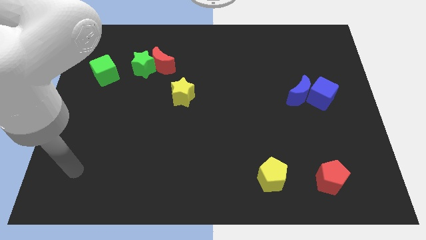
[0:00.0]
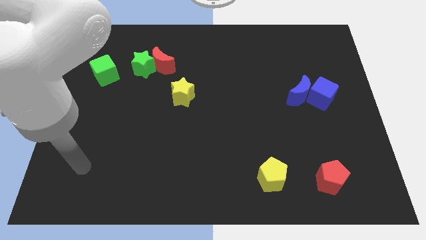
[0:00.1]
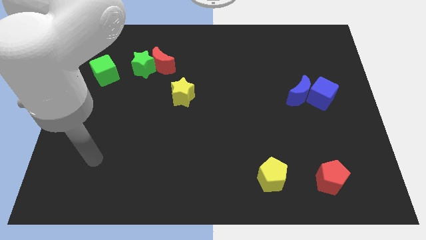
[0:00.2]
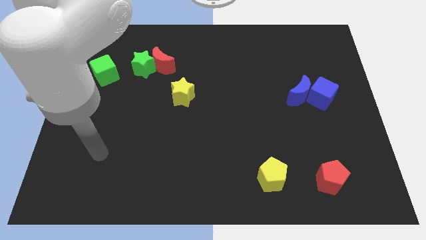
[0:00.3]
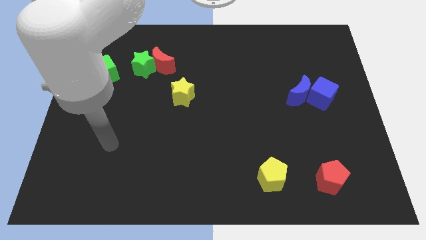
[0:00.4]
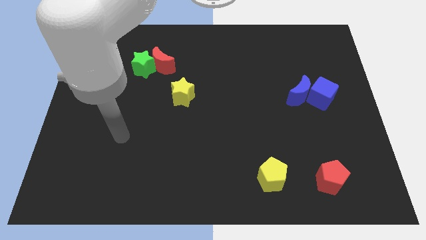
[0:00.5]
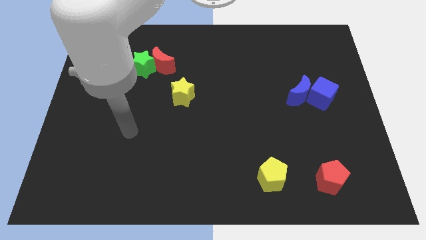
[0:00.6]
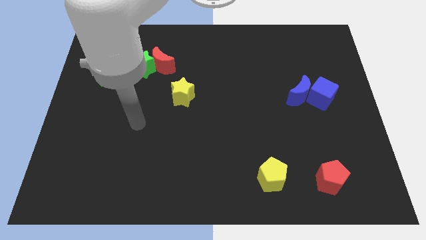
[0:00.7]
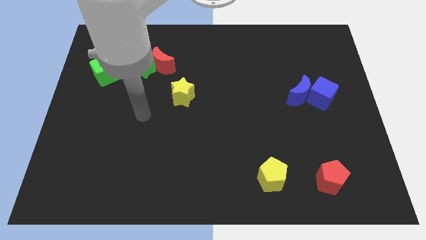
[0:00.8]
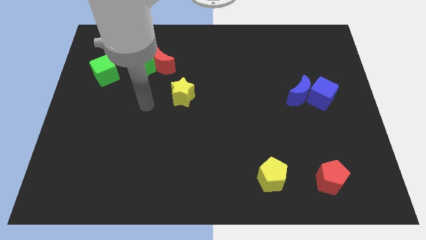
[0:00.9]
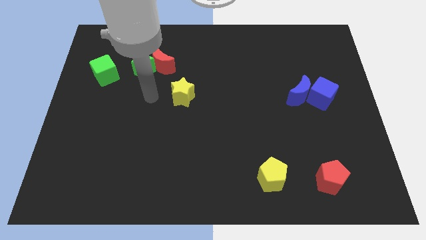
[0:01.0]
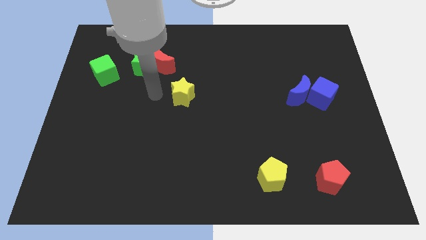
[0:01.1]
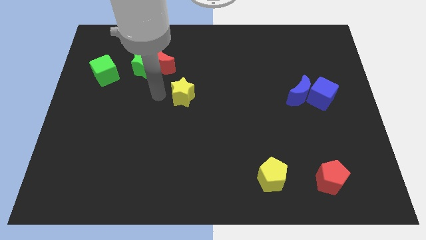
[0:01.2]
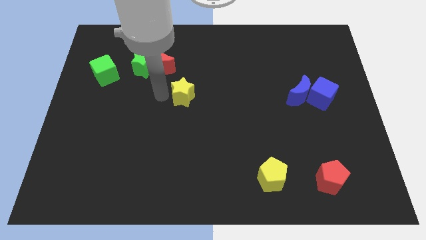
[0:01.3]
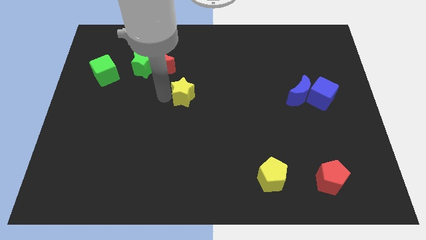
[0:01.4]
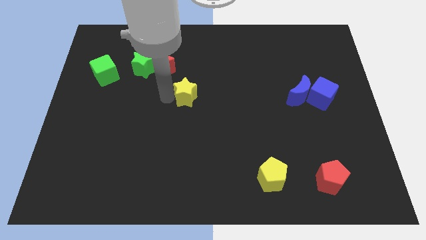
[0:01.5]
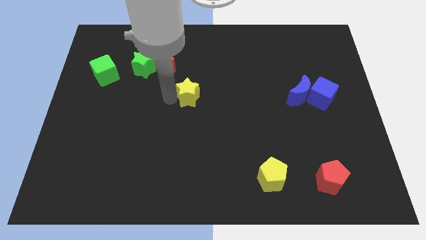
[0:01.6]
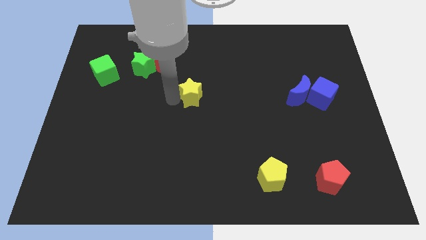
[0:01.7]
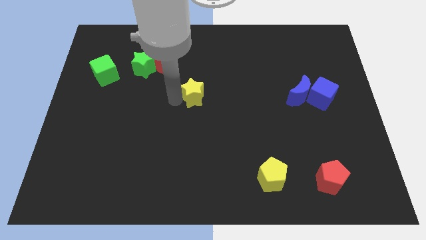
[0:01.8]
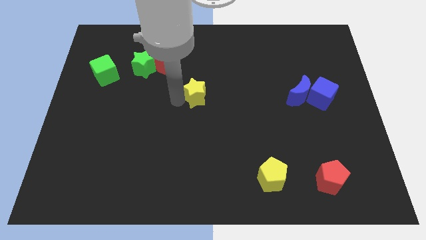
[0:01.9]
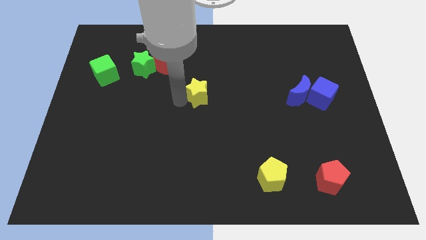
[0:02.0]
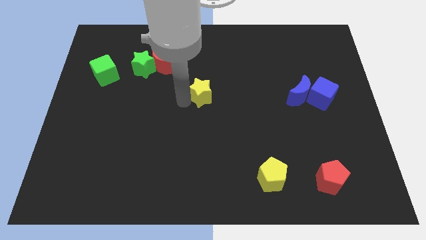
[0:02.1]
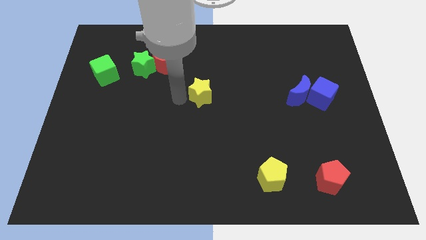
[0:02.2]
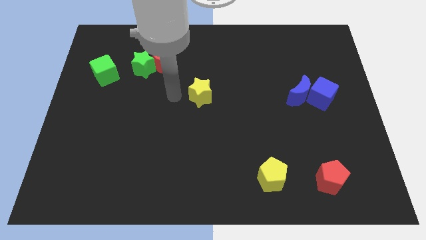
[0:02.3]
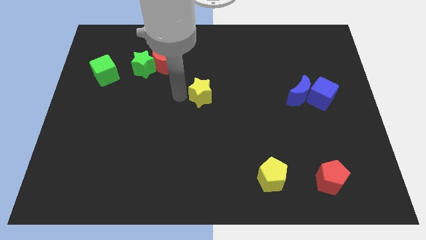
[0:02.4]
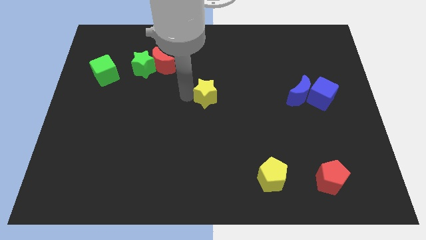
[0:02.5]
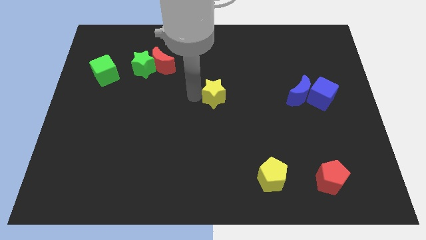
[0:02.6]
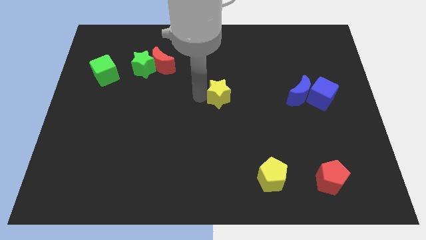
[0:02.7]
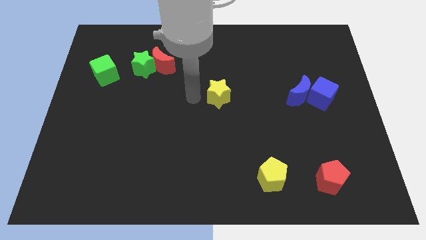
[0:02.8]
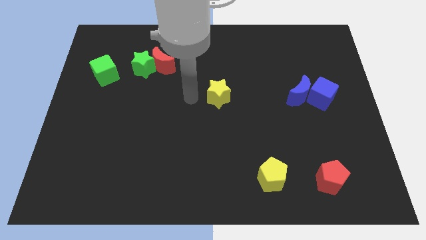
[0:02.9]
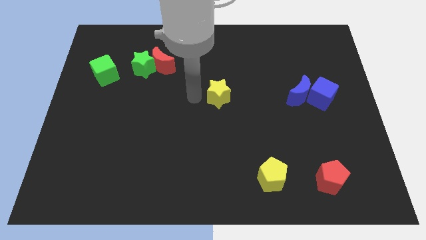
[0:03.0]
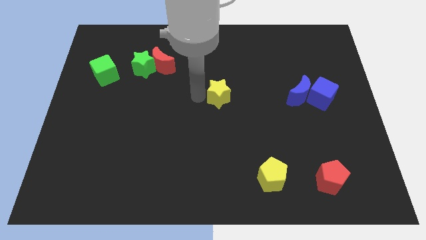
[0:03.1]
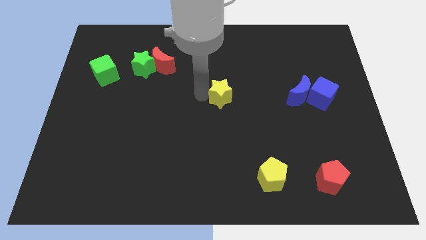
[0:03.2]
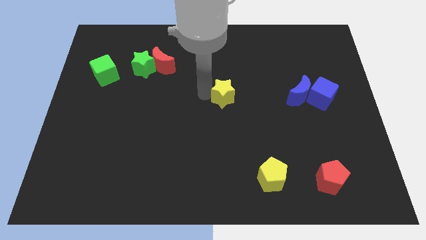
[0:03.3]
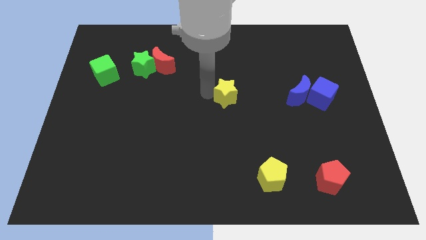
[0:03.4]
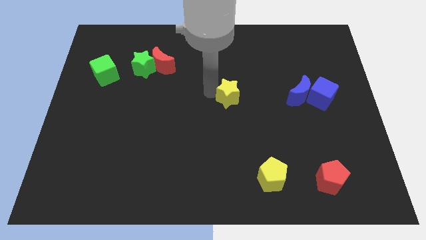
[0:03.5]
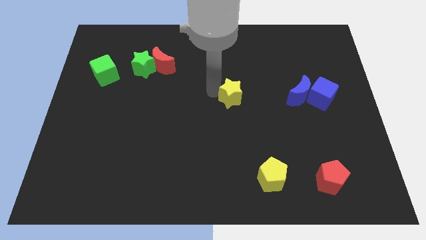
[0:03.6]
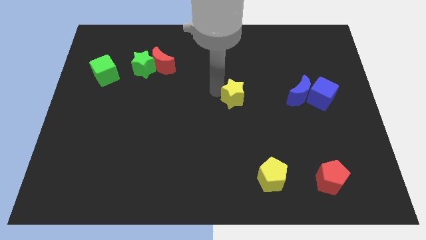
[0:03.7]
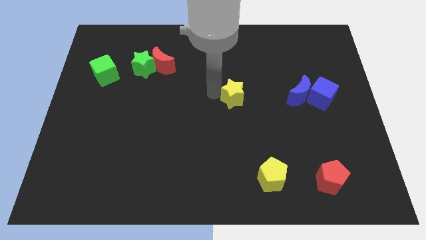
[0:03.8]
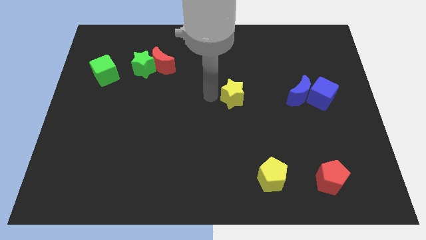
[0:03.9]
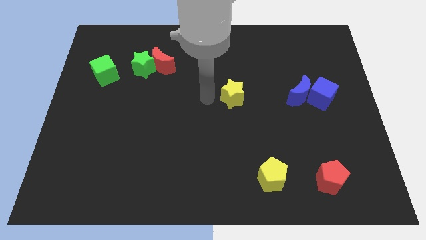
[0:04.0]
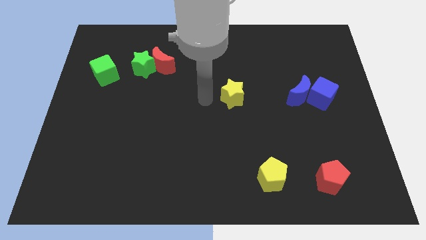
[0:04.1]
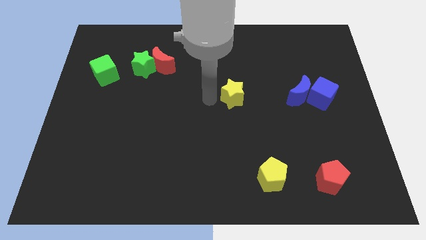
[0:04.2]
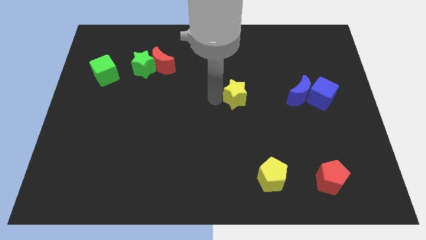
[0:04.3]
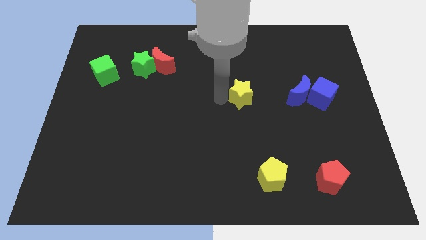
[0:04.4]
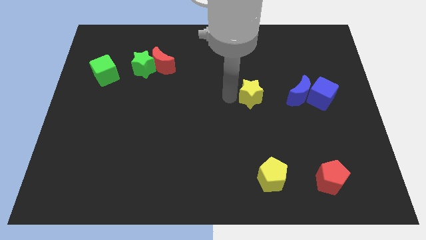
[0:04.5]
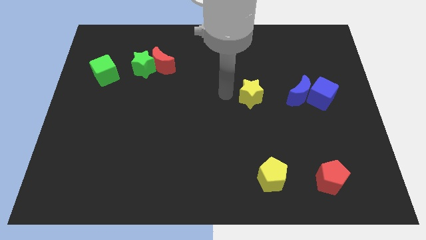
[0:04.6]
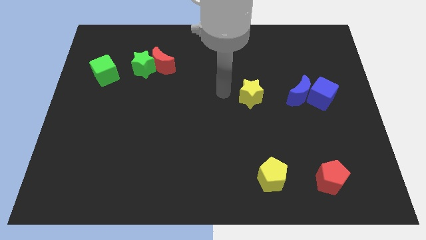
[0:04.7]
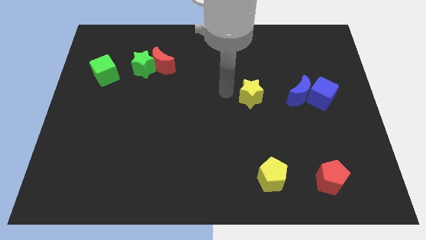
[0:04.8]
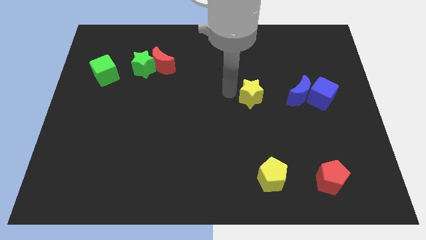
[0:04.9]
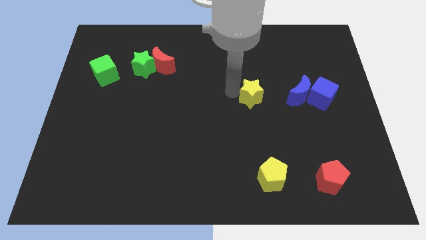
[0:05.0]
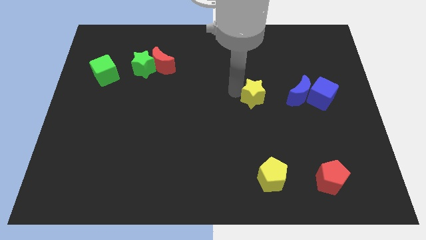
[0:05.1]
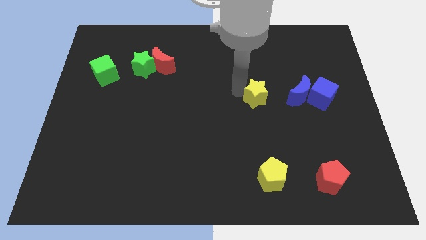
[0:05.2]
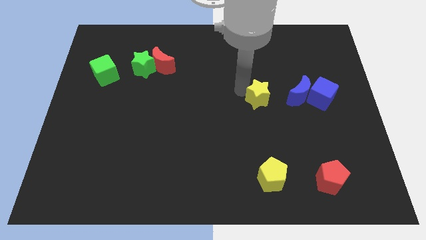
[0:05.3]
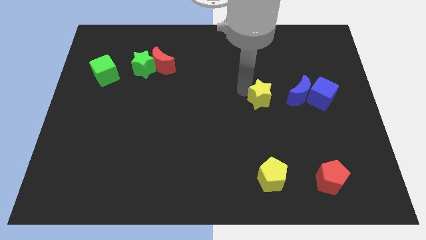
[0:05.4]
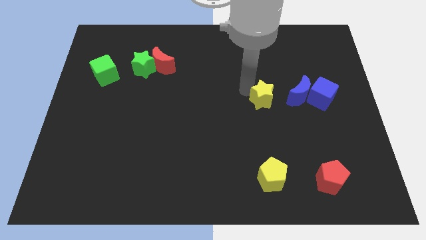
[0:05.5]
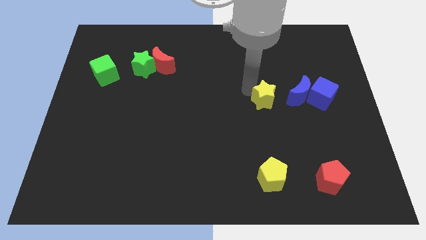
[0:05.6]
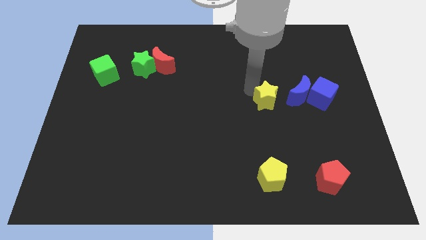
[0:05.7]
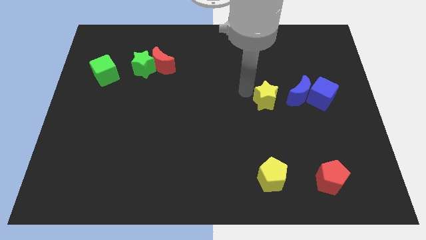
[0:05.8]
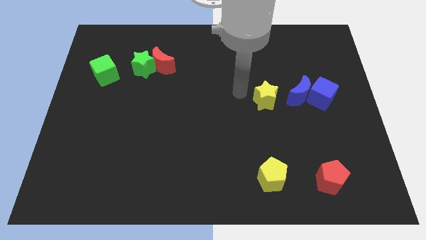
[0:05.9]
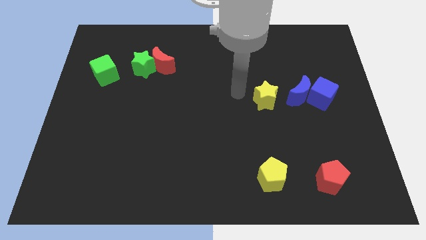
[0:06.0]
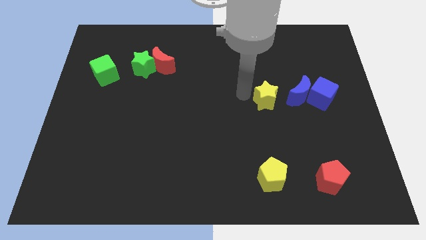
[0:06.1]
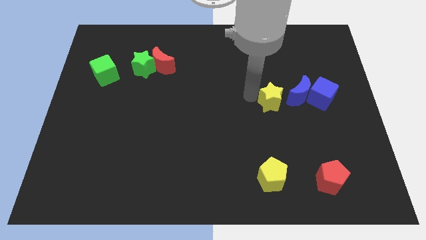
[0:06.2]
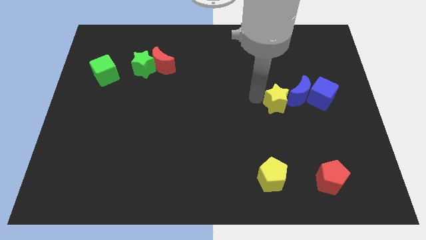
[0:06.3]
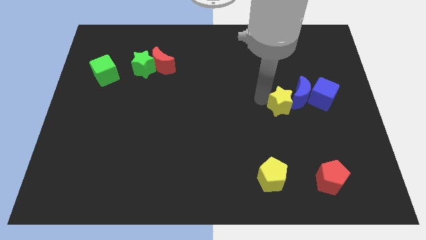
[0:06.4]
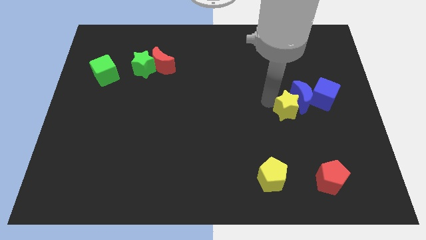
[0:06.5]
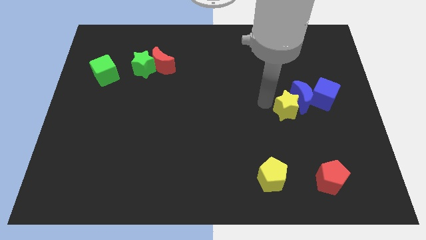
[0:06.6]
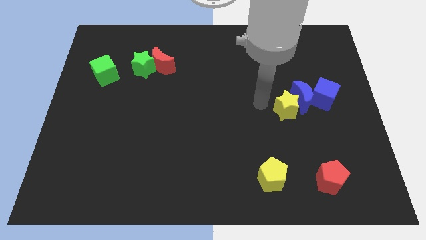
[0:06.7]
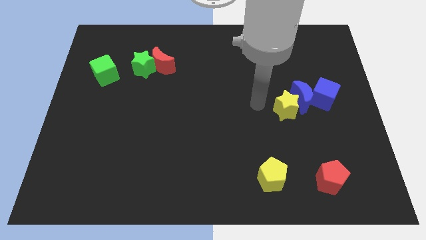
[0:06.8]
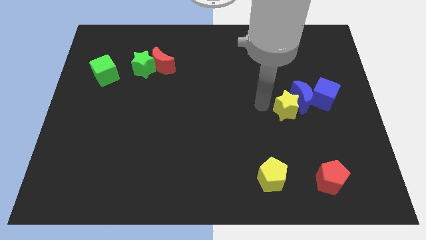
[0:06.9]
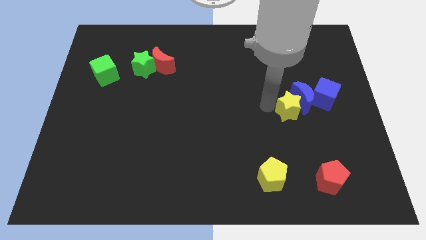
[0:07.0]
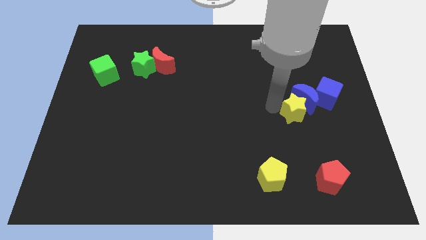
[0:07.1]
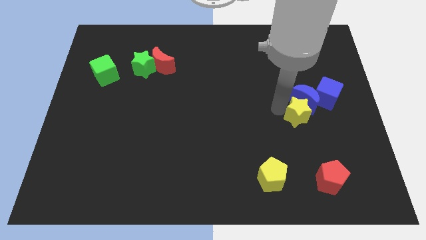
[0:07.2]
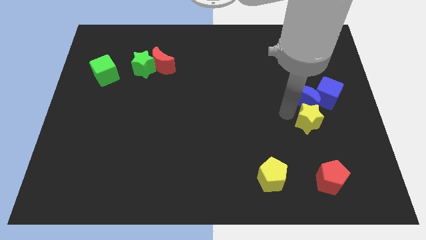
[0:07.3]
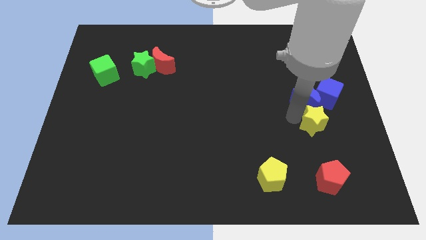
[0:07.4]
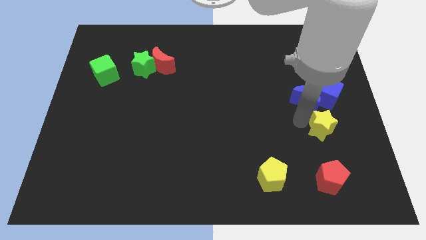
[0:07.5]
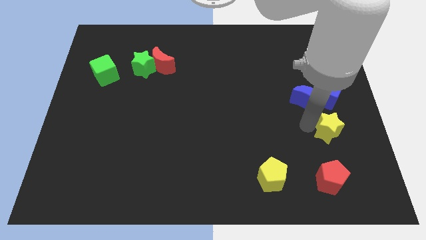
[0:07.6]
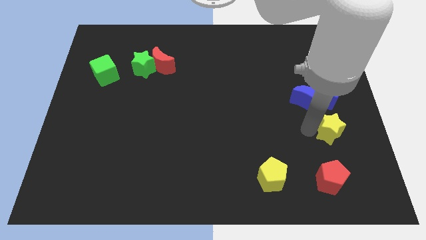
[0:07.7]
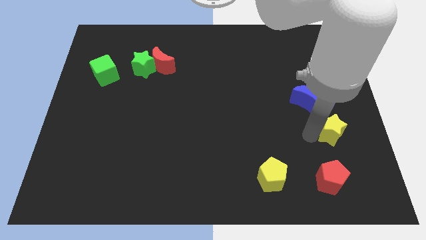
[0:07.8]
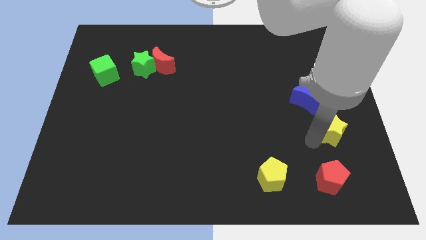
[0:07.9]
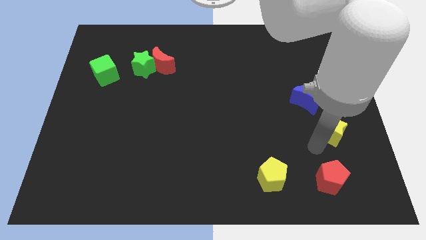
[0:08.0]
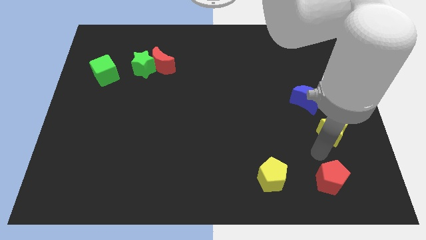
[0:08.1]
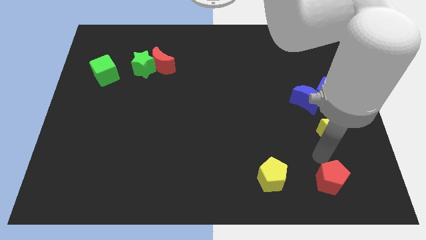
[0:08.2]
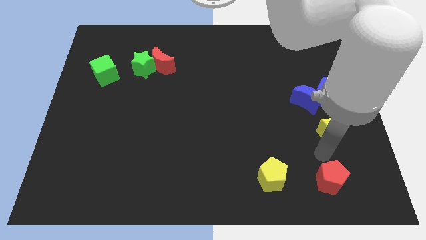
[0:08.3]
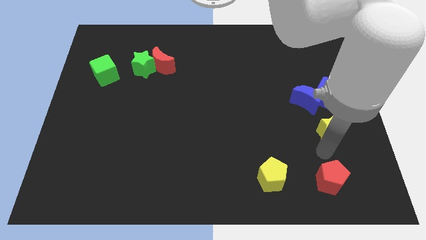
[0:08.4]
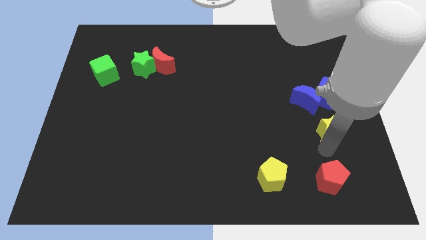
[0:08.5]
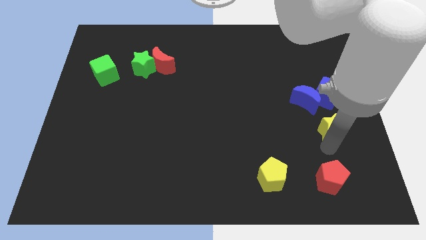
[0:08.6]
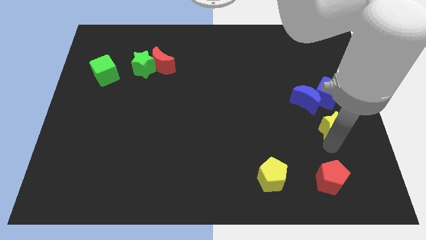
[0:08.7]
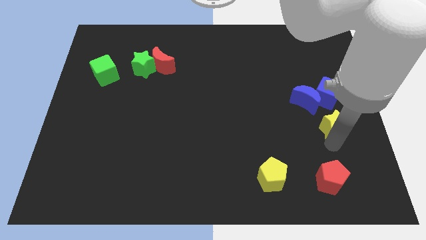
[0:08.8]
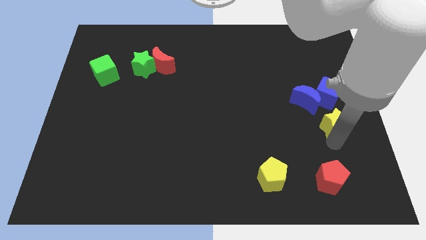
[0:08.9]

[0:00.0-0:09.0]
move the yellow star to the right side of the board
